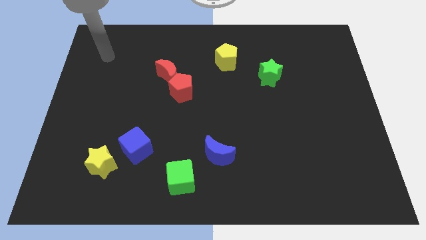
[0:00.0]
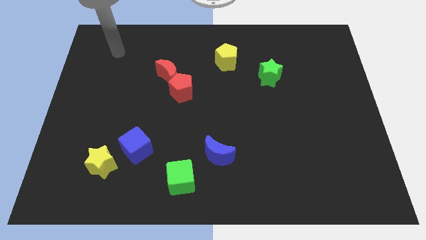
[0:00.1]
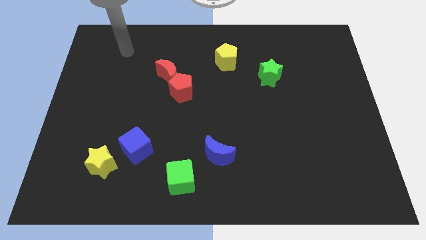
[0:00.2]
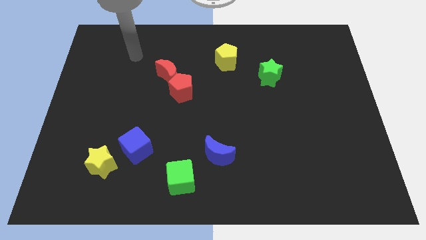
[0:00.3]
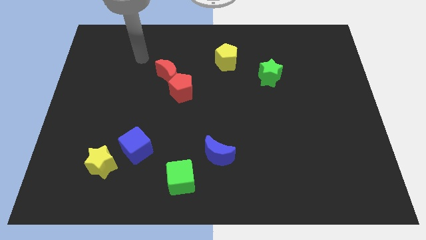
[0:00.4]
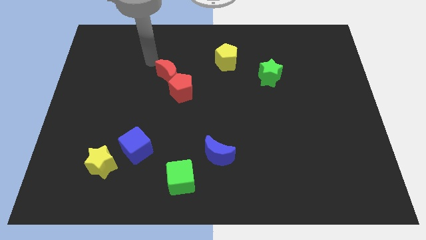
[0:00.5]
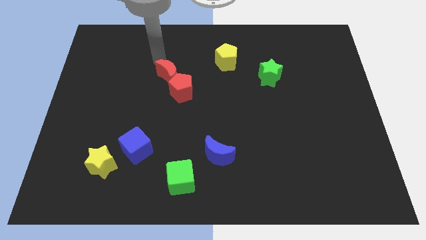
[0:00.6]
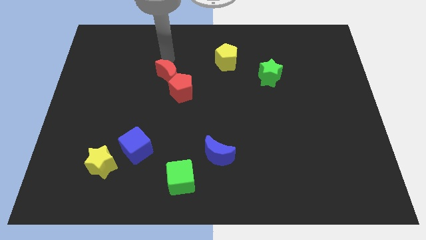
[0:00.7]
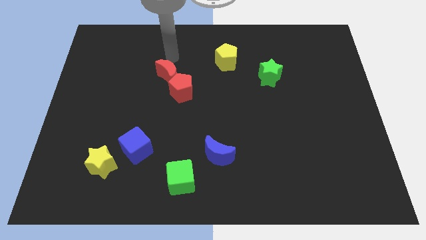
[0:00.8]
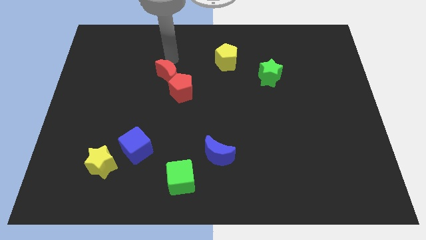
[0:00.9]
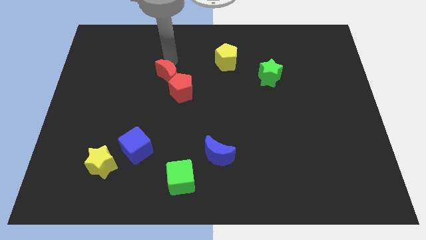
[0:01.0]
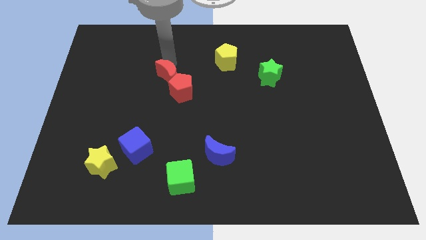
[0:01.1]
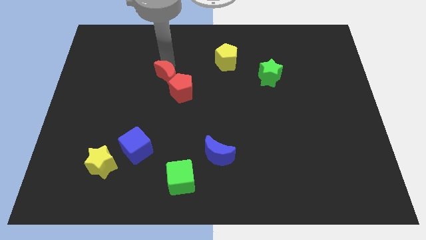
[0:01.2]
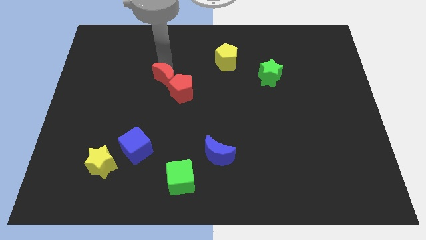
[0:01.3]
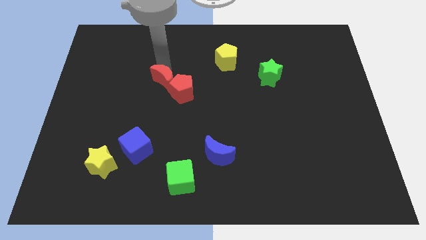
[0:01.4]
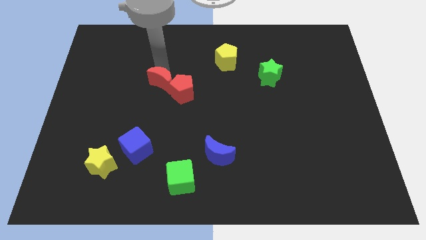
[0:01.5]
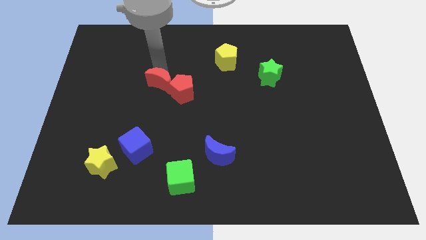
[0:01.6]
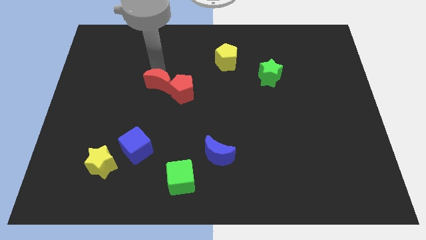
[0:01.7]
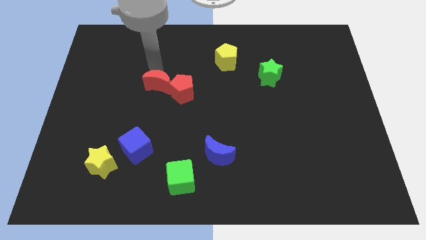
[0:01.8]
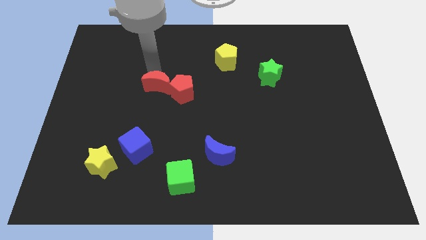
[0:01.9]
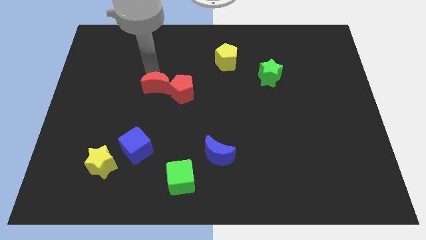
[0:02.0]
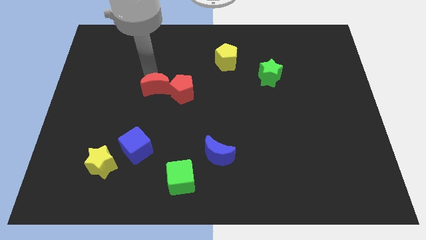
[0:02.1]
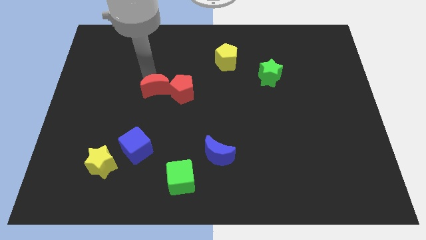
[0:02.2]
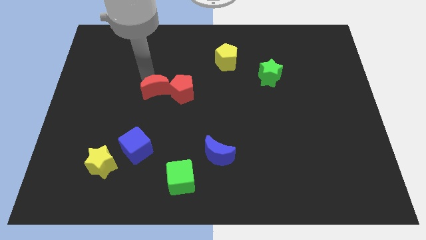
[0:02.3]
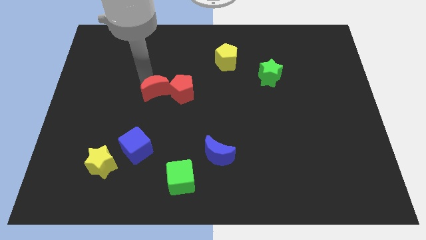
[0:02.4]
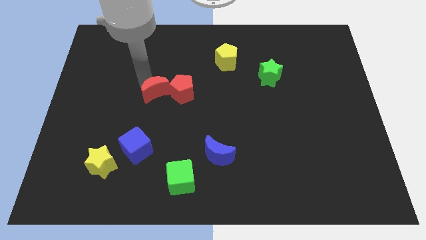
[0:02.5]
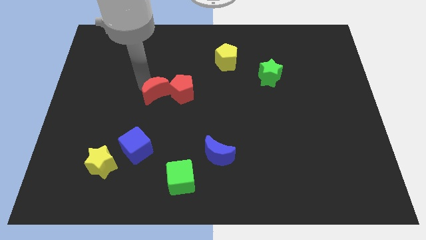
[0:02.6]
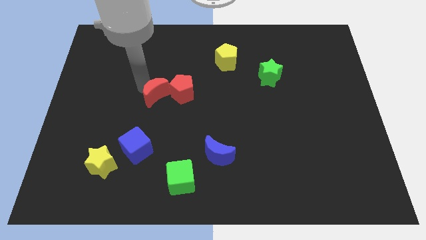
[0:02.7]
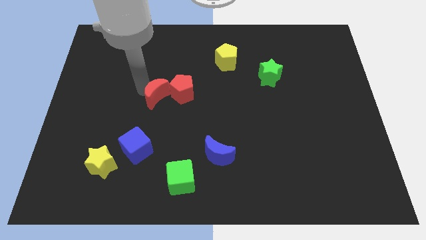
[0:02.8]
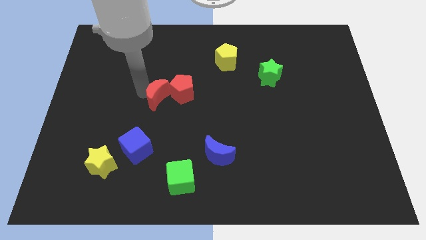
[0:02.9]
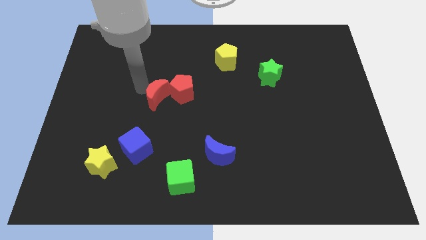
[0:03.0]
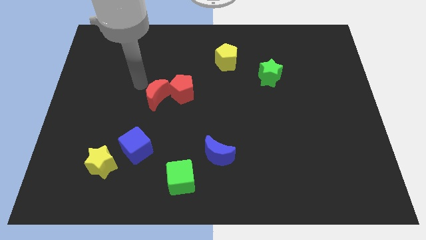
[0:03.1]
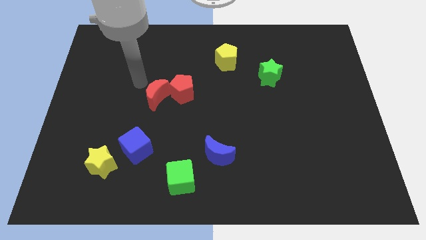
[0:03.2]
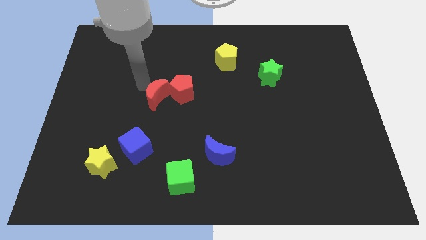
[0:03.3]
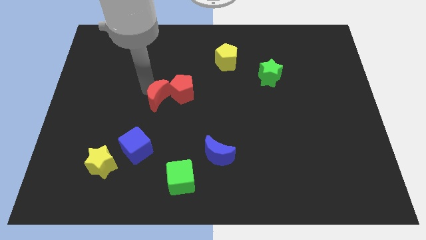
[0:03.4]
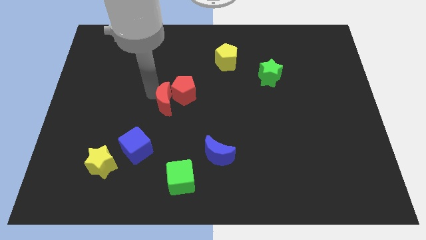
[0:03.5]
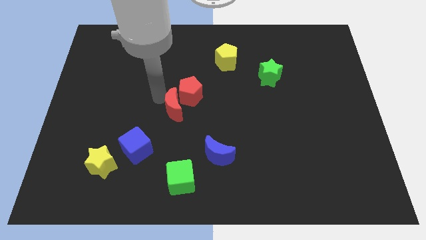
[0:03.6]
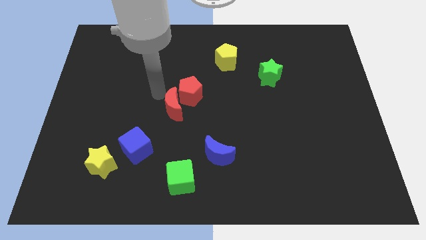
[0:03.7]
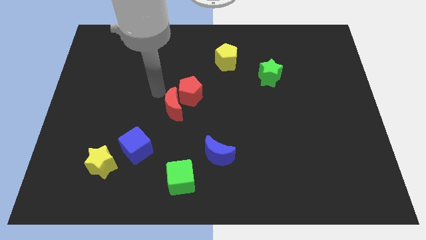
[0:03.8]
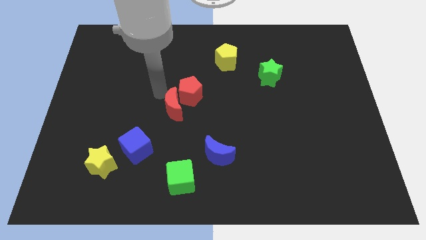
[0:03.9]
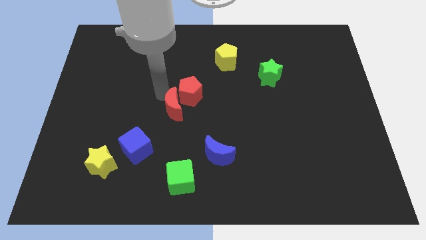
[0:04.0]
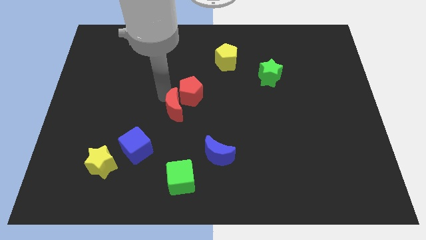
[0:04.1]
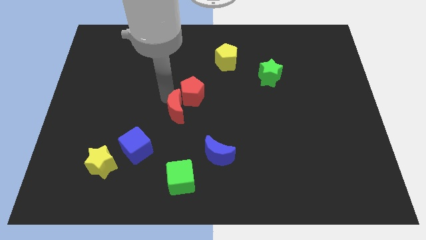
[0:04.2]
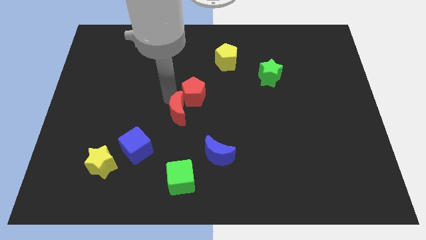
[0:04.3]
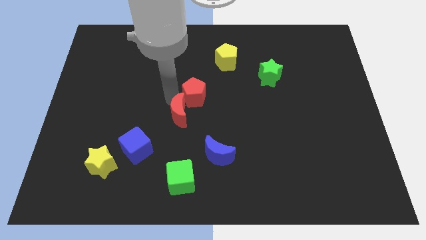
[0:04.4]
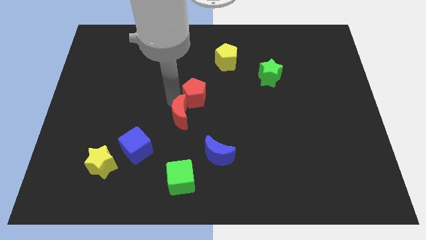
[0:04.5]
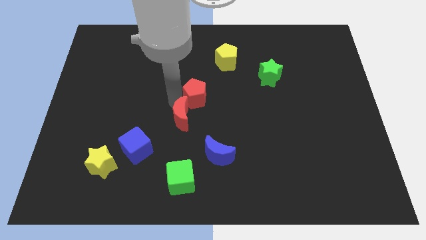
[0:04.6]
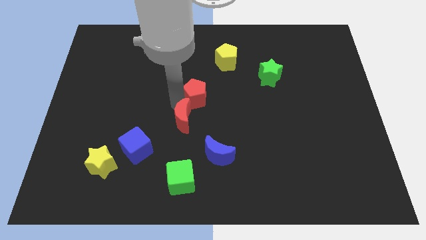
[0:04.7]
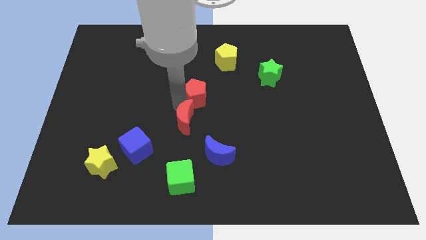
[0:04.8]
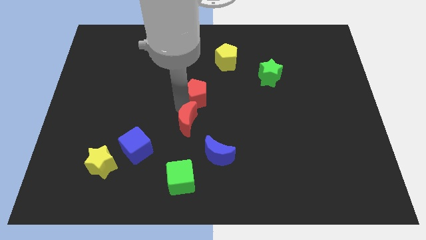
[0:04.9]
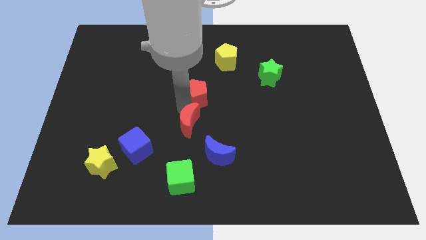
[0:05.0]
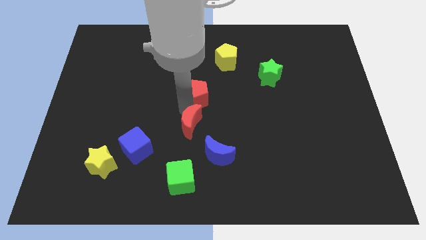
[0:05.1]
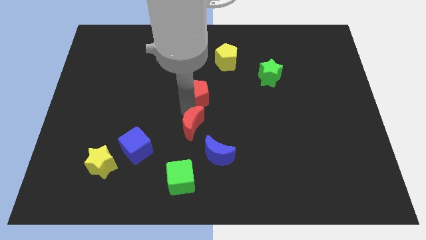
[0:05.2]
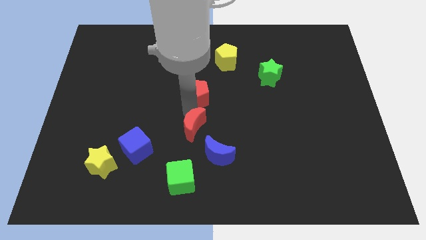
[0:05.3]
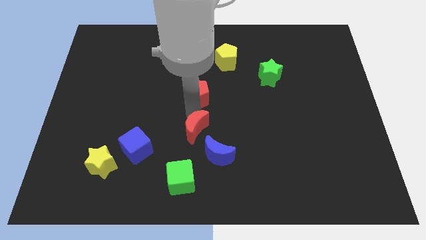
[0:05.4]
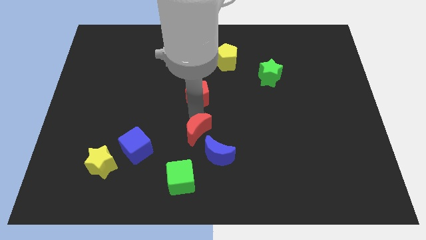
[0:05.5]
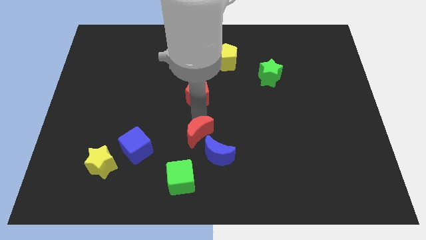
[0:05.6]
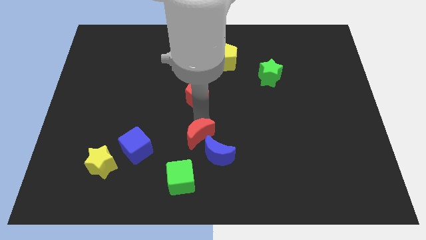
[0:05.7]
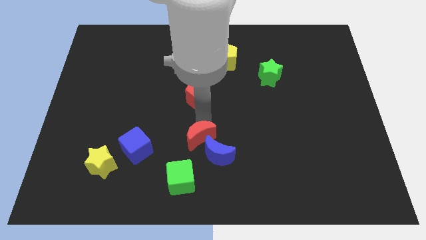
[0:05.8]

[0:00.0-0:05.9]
move the red moon towards the blue moon

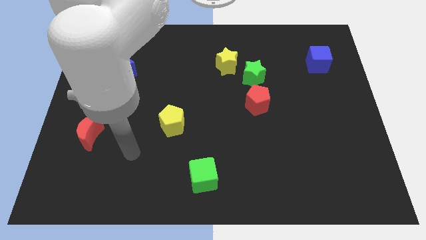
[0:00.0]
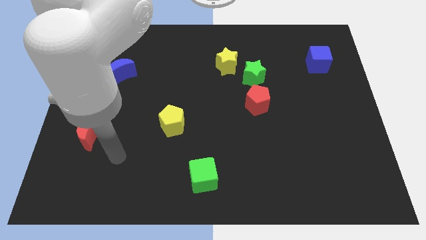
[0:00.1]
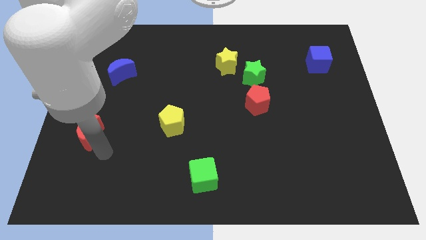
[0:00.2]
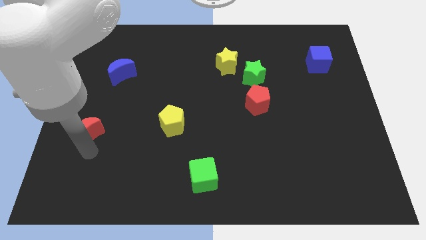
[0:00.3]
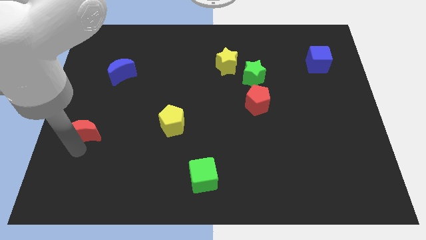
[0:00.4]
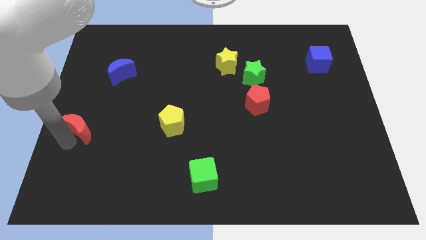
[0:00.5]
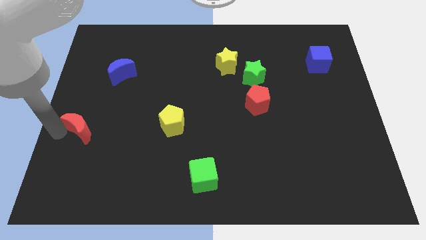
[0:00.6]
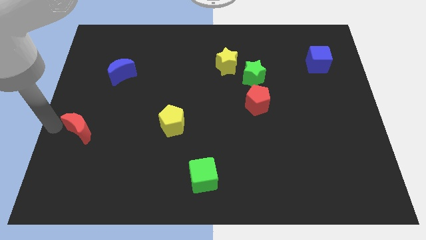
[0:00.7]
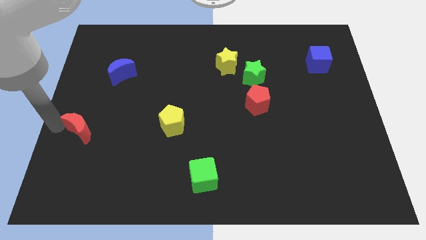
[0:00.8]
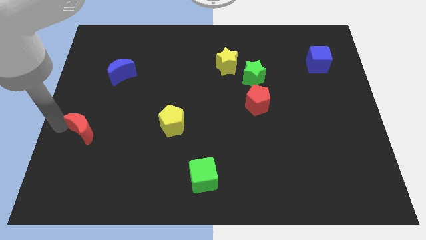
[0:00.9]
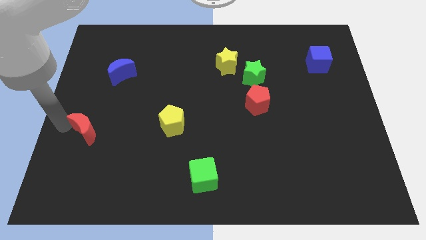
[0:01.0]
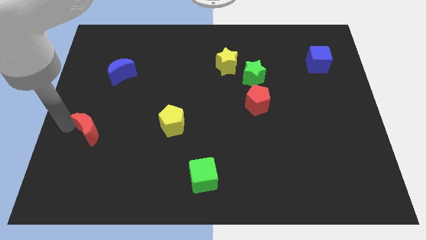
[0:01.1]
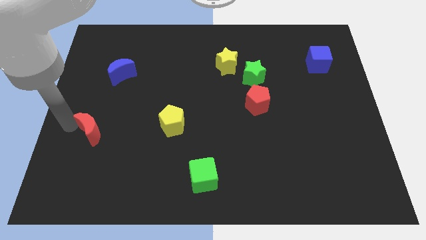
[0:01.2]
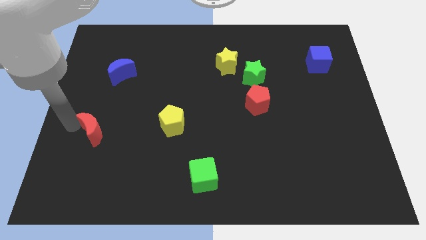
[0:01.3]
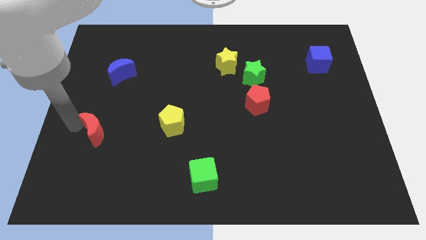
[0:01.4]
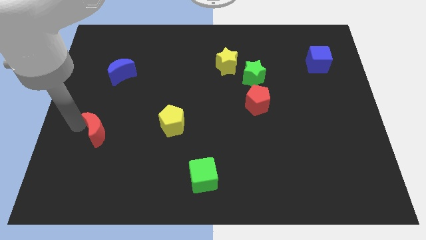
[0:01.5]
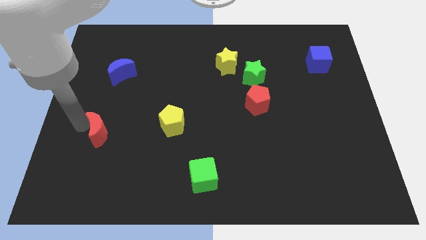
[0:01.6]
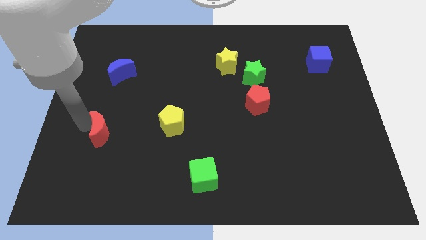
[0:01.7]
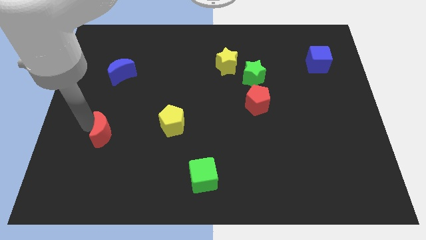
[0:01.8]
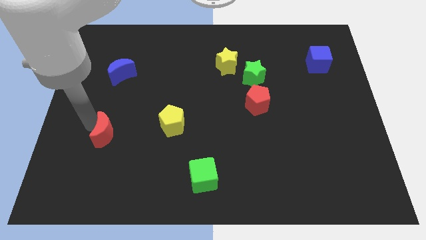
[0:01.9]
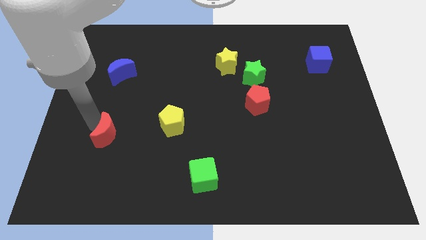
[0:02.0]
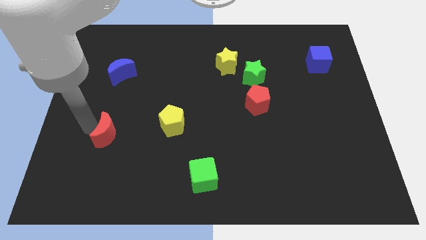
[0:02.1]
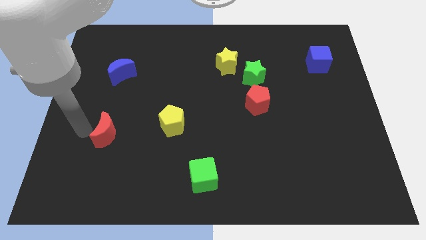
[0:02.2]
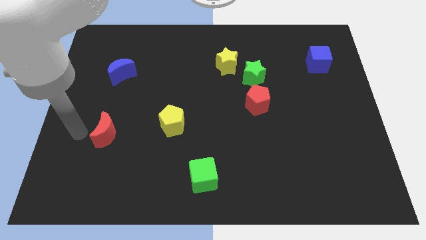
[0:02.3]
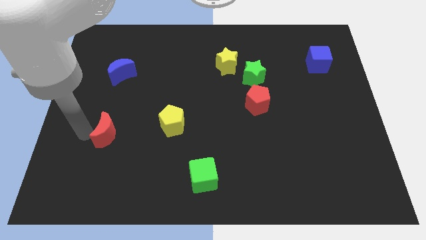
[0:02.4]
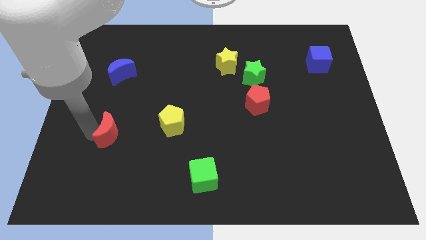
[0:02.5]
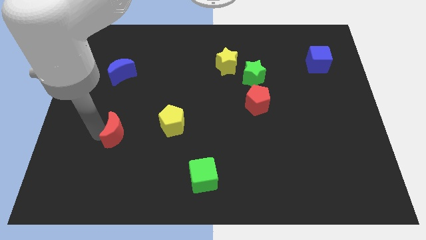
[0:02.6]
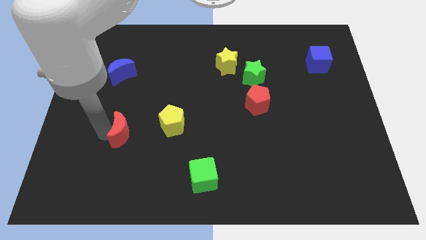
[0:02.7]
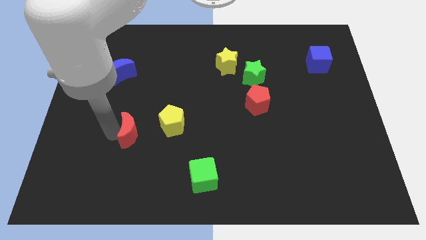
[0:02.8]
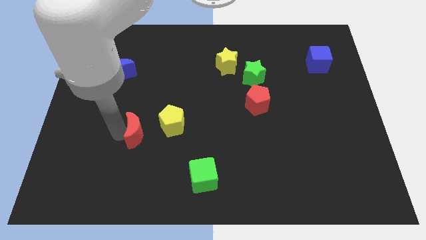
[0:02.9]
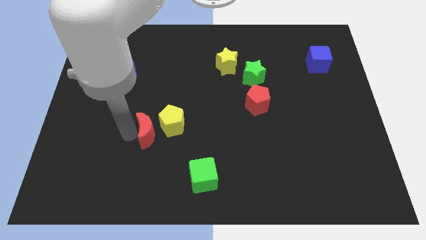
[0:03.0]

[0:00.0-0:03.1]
push the red moon towards the yellow pentagon
